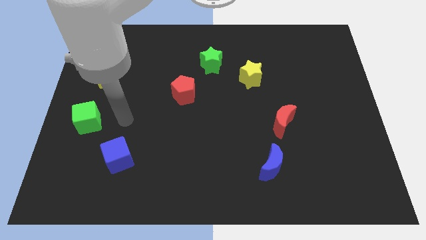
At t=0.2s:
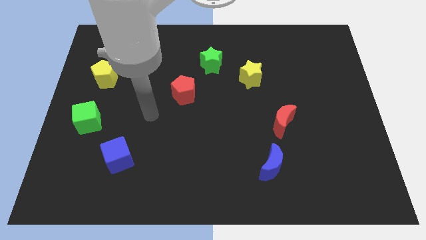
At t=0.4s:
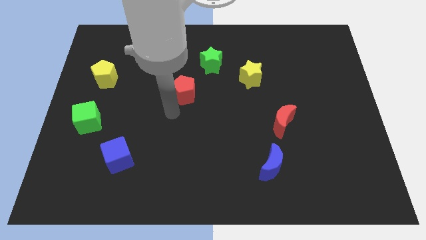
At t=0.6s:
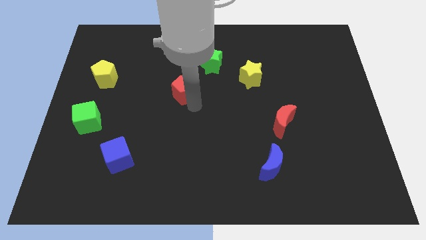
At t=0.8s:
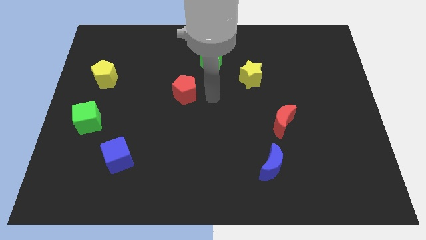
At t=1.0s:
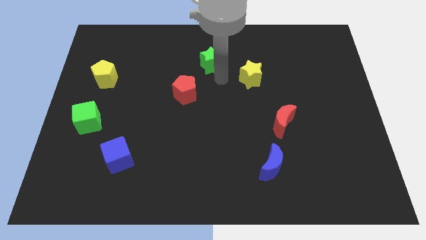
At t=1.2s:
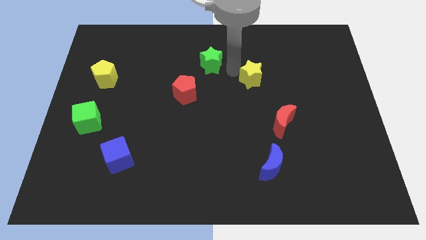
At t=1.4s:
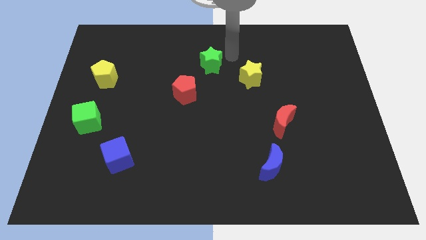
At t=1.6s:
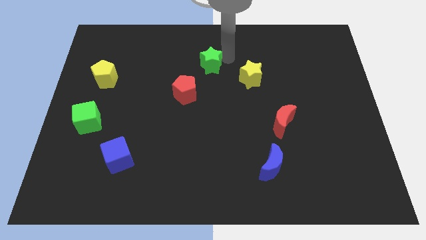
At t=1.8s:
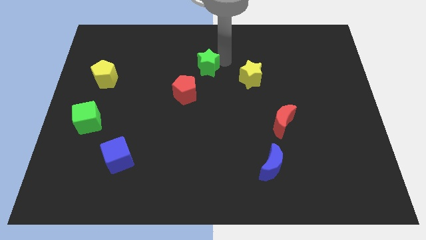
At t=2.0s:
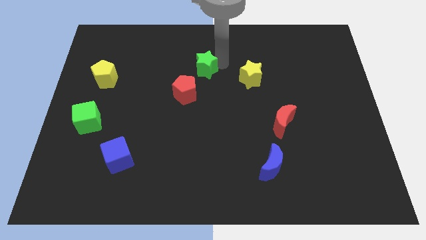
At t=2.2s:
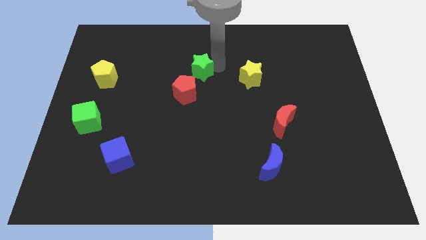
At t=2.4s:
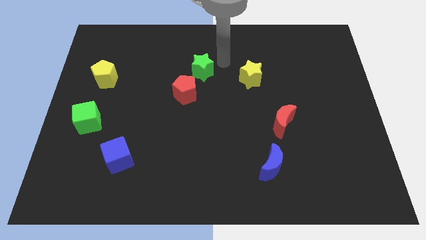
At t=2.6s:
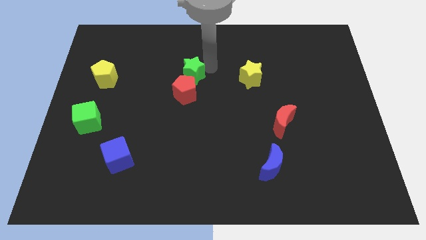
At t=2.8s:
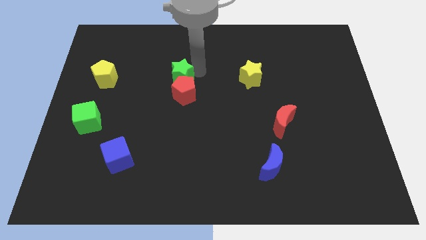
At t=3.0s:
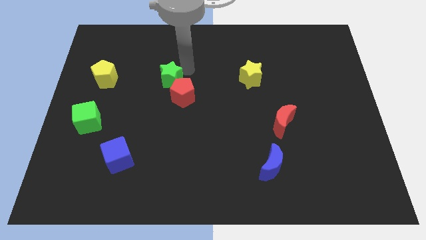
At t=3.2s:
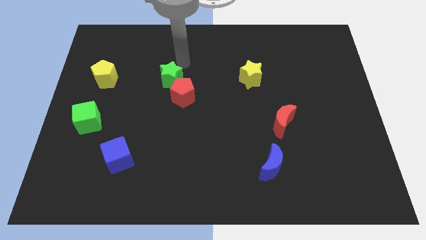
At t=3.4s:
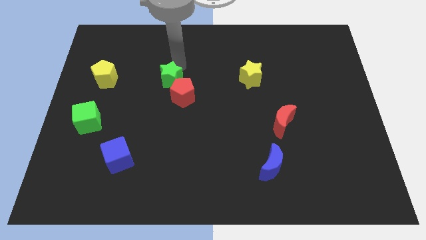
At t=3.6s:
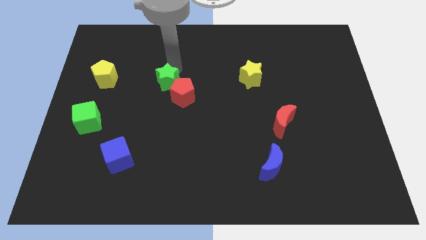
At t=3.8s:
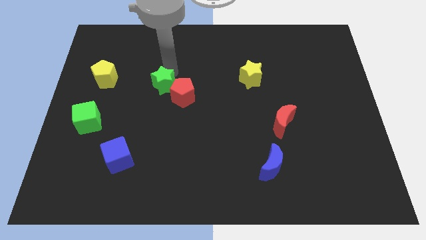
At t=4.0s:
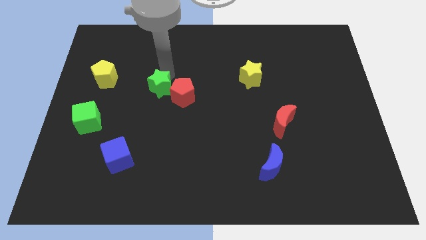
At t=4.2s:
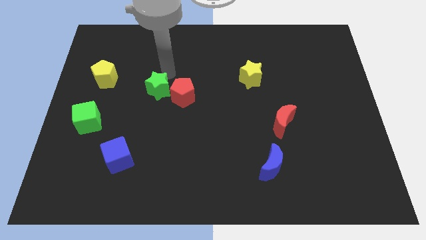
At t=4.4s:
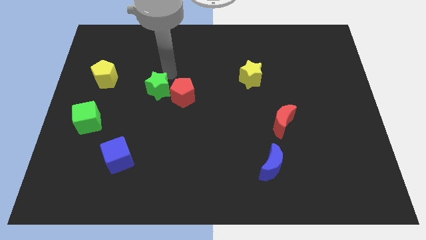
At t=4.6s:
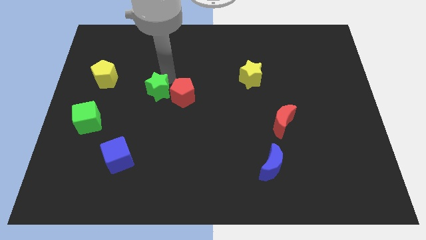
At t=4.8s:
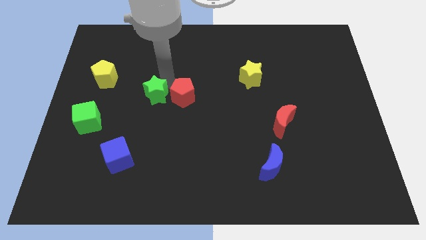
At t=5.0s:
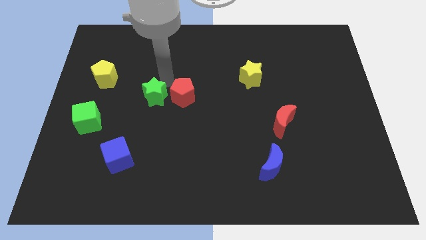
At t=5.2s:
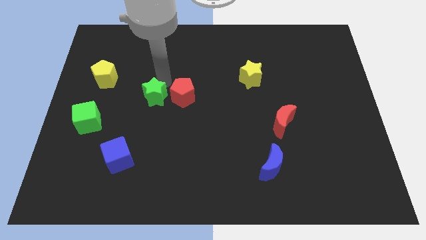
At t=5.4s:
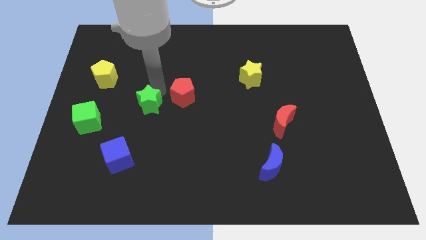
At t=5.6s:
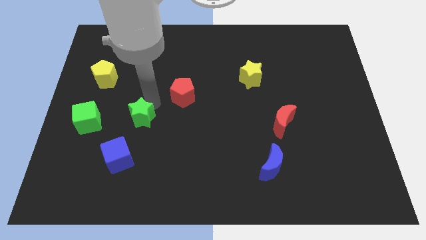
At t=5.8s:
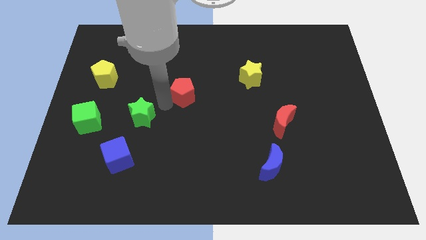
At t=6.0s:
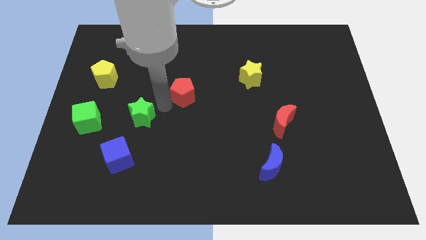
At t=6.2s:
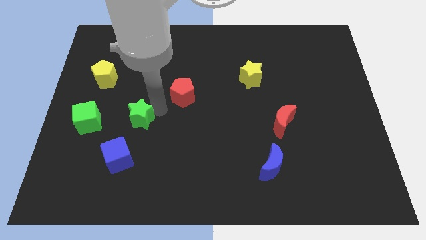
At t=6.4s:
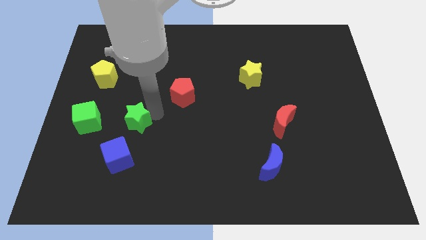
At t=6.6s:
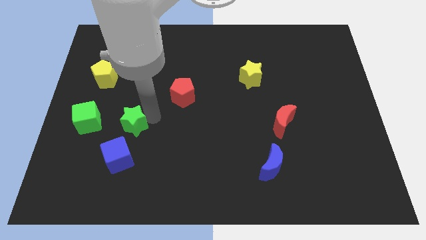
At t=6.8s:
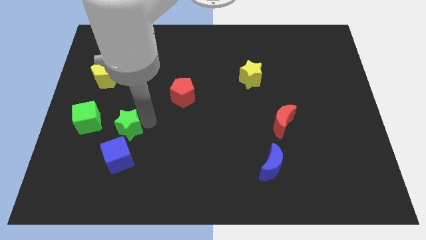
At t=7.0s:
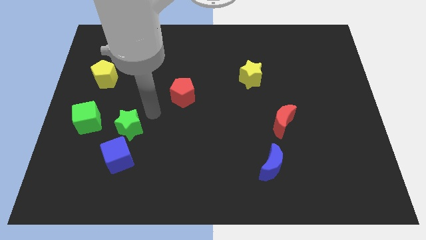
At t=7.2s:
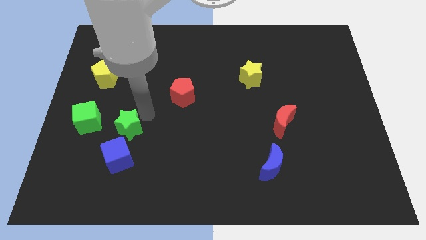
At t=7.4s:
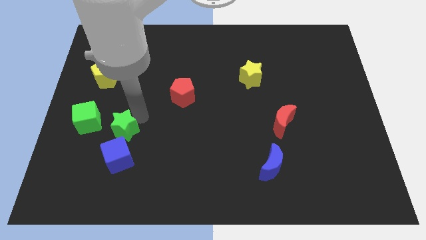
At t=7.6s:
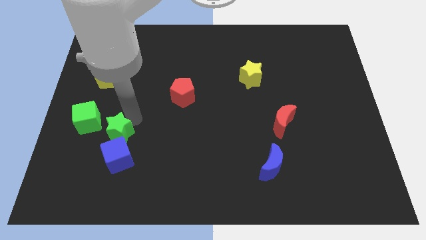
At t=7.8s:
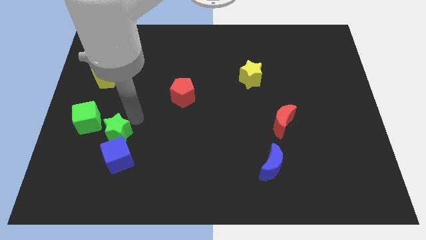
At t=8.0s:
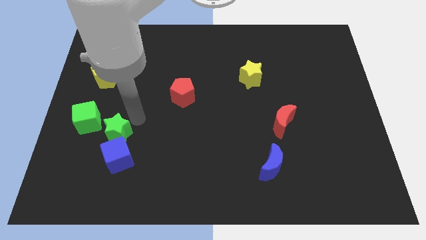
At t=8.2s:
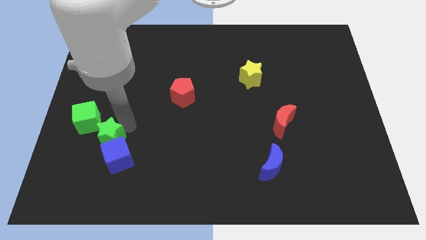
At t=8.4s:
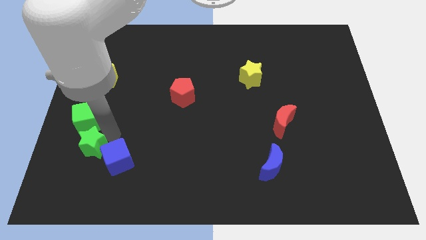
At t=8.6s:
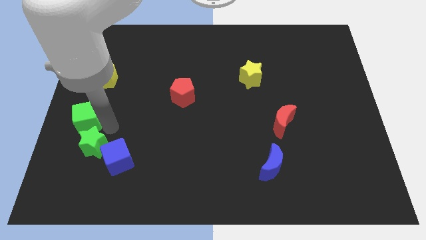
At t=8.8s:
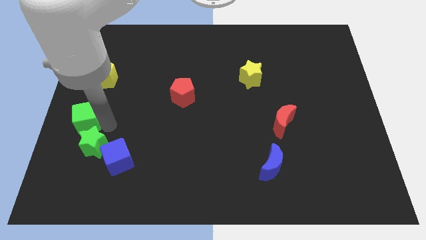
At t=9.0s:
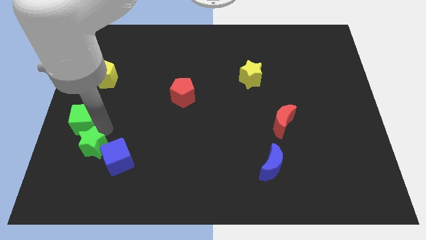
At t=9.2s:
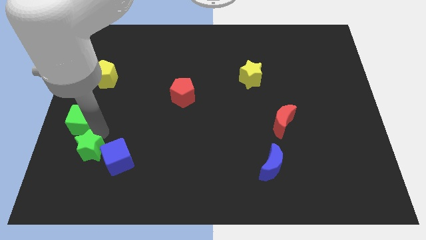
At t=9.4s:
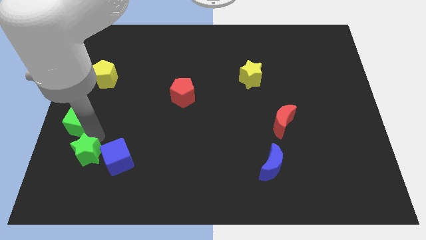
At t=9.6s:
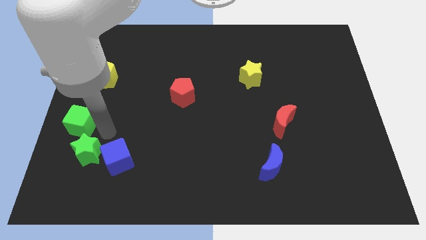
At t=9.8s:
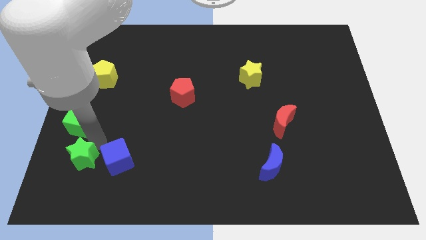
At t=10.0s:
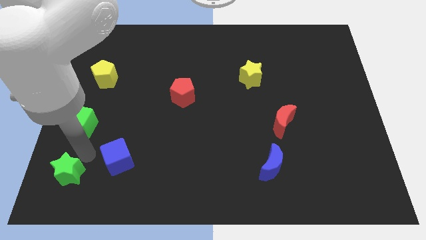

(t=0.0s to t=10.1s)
push the green star to the bottom left of the board

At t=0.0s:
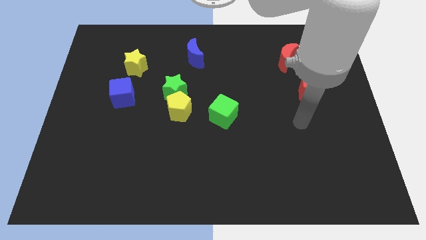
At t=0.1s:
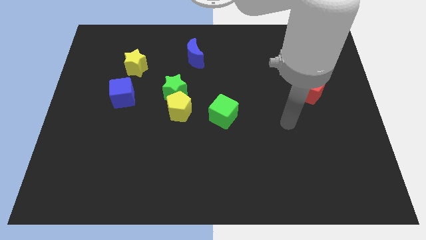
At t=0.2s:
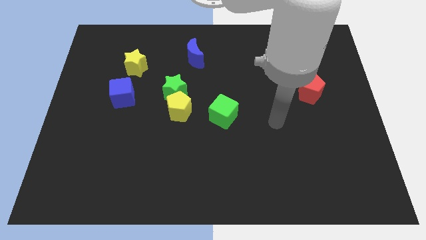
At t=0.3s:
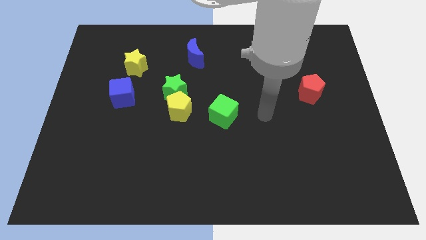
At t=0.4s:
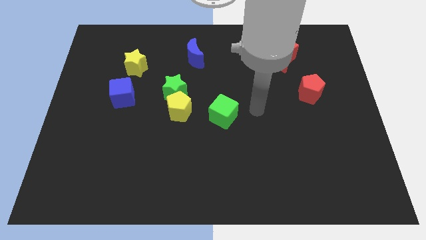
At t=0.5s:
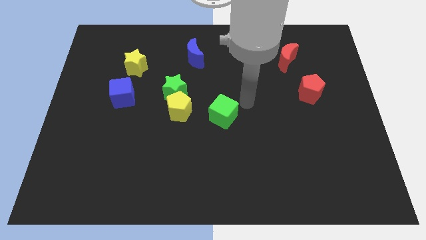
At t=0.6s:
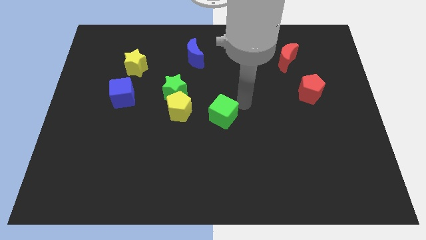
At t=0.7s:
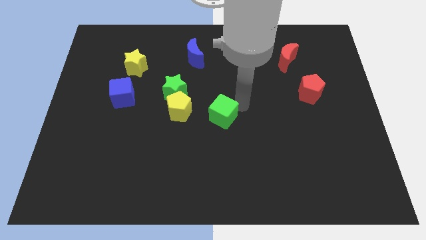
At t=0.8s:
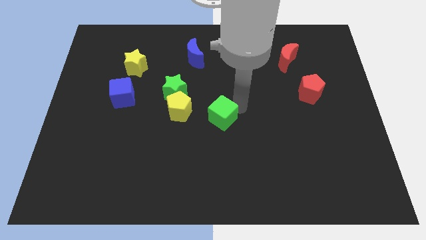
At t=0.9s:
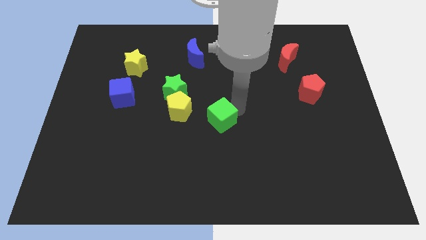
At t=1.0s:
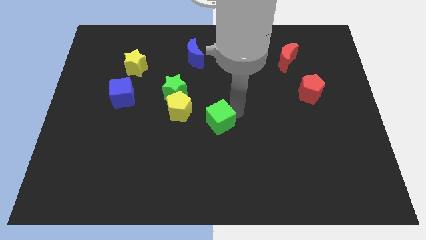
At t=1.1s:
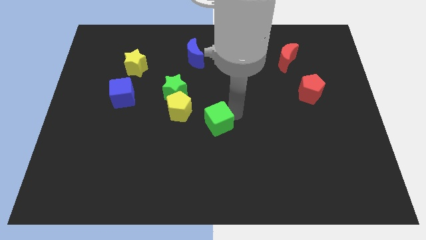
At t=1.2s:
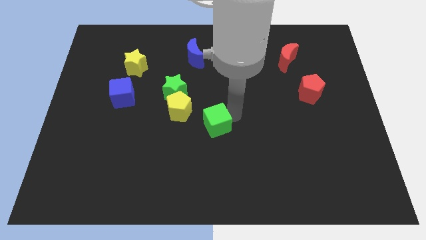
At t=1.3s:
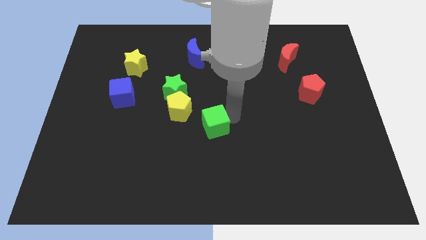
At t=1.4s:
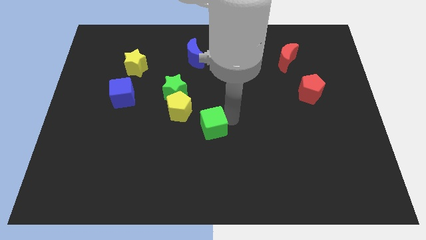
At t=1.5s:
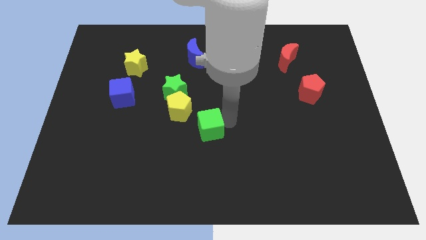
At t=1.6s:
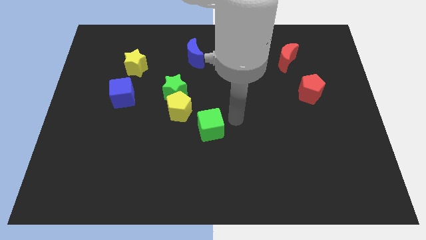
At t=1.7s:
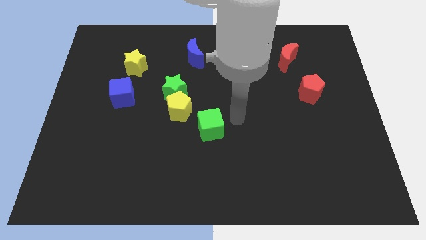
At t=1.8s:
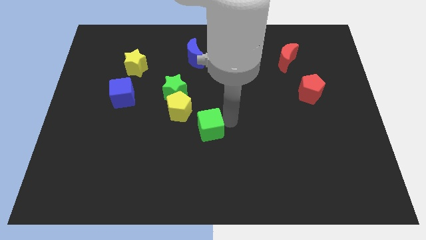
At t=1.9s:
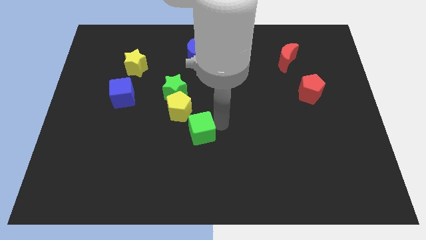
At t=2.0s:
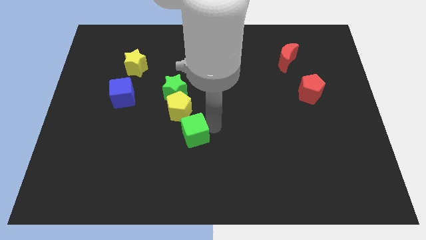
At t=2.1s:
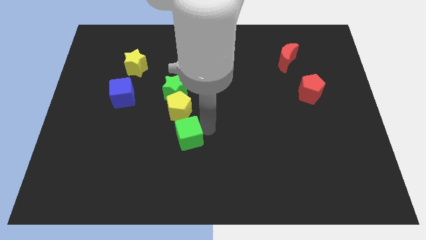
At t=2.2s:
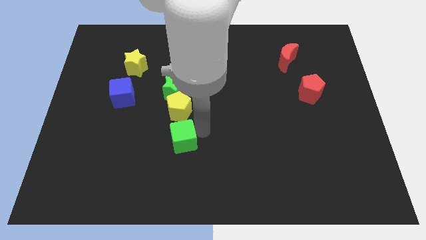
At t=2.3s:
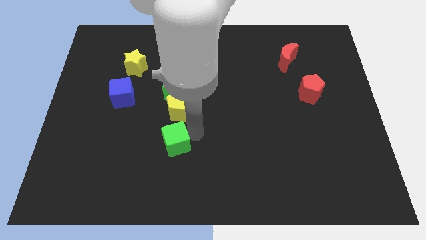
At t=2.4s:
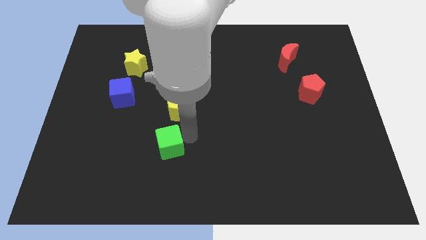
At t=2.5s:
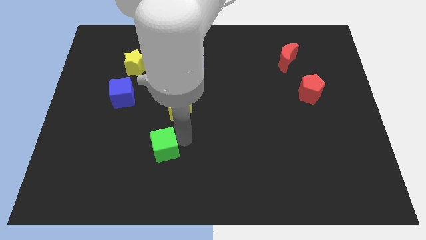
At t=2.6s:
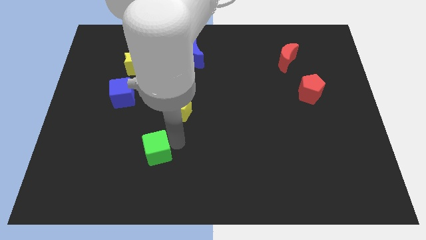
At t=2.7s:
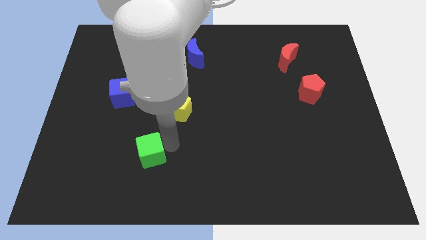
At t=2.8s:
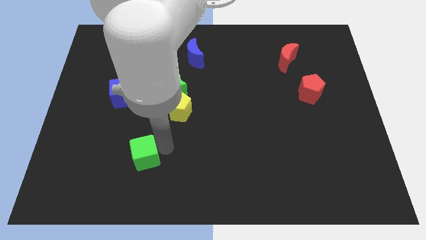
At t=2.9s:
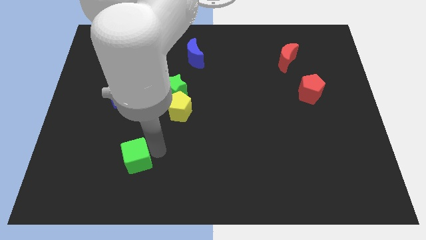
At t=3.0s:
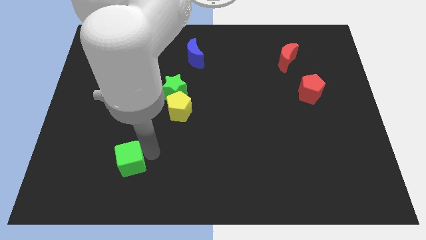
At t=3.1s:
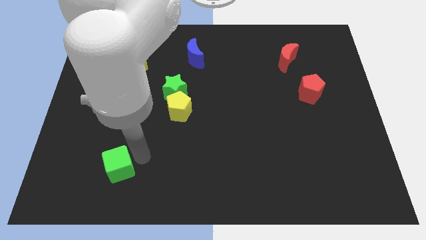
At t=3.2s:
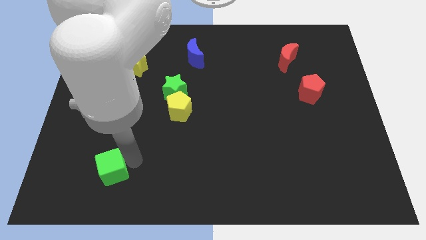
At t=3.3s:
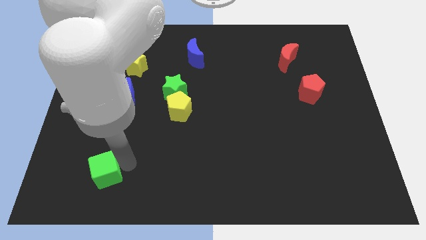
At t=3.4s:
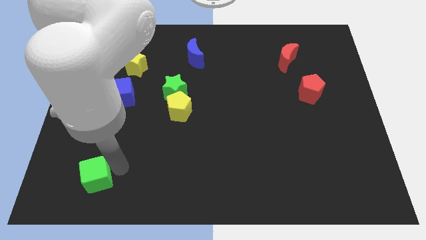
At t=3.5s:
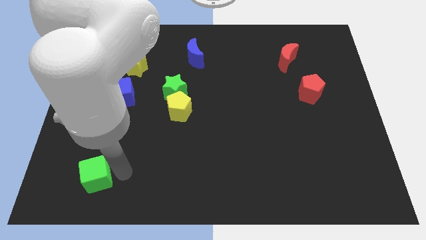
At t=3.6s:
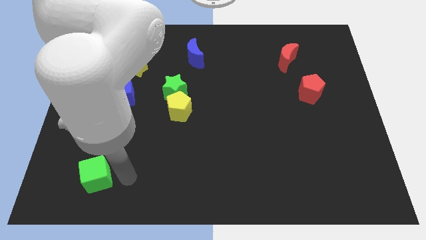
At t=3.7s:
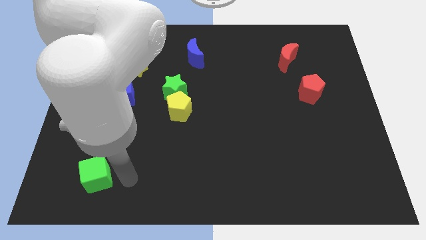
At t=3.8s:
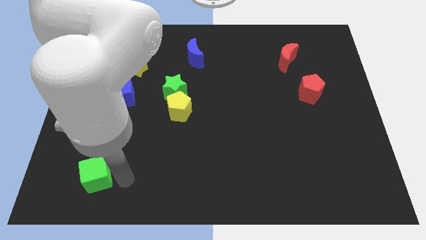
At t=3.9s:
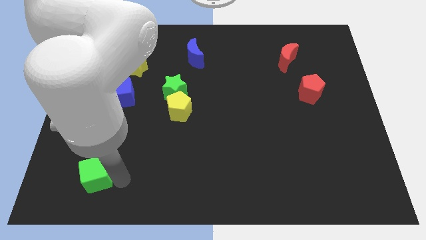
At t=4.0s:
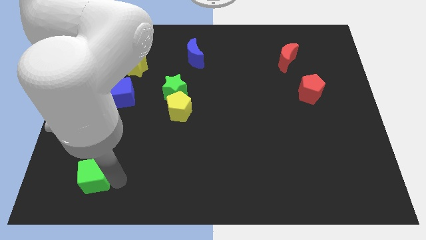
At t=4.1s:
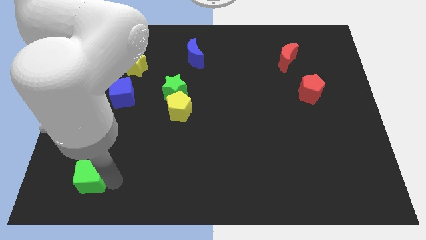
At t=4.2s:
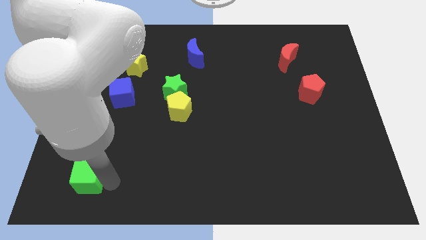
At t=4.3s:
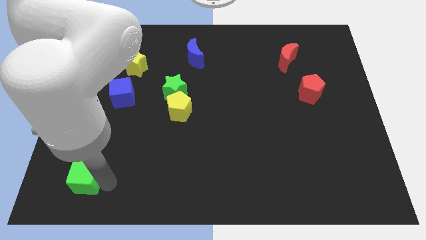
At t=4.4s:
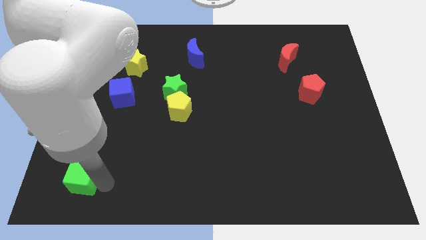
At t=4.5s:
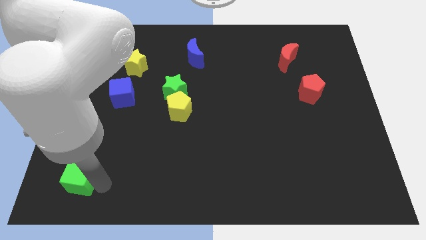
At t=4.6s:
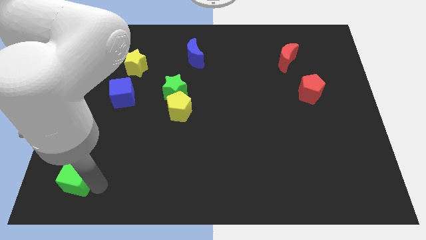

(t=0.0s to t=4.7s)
slide the green cube to the bottom left corner
